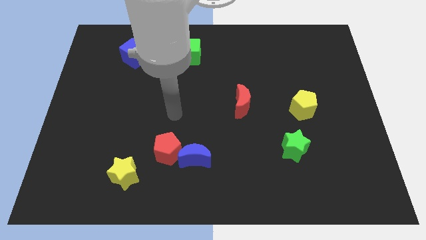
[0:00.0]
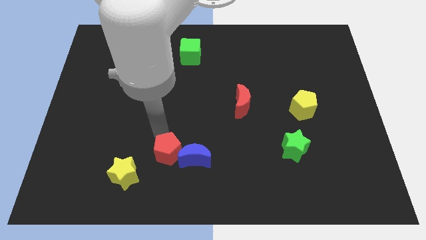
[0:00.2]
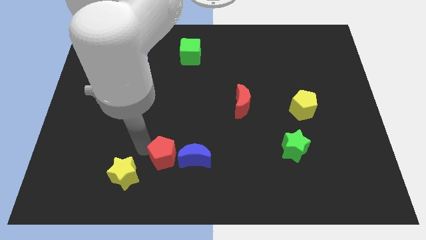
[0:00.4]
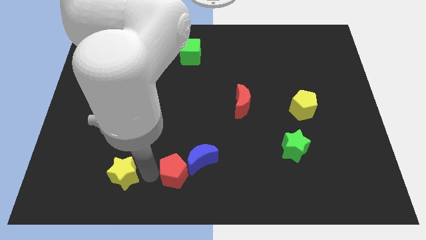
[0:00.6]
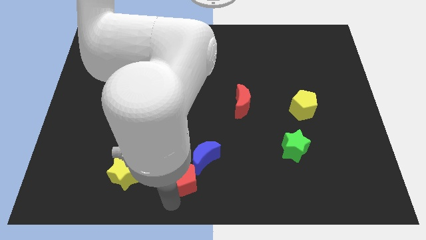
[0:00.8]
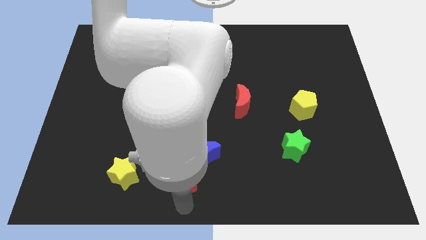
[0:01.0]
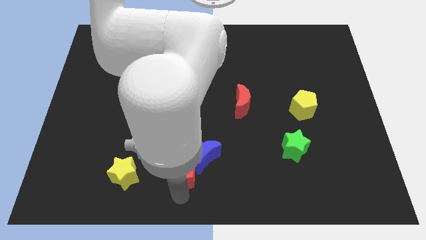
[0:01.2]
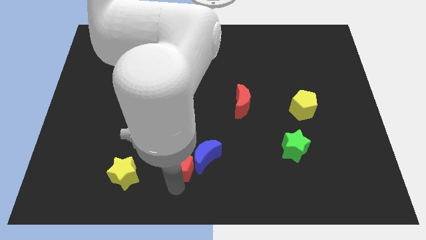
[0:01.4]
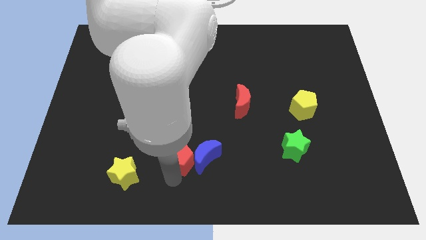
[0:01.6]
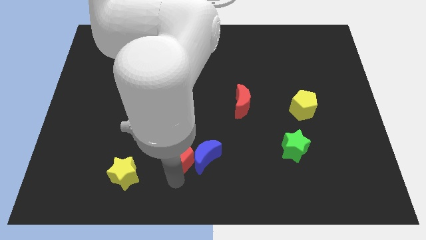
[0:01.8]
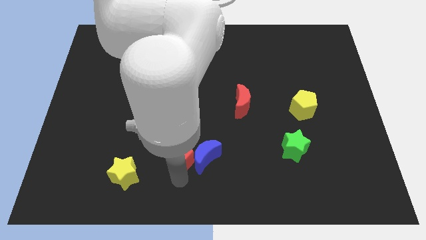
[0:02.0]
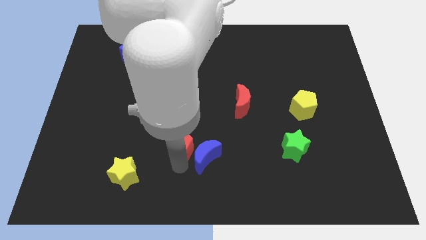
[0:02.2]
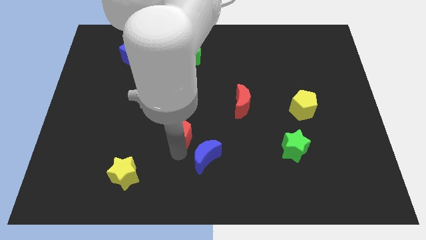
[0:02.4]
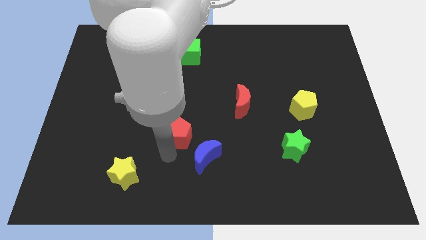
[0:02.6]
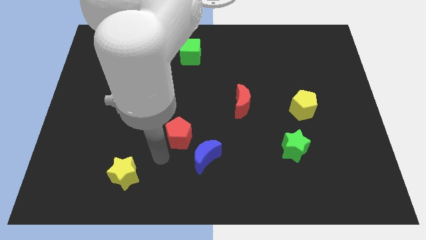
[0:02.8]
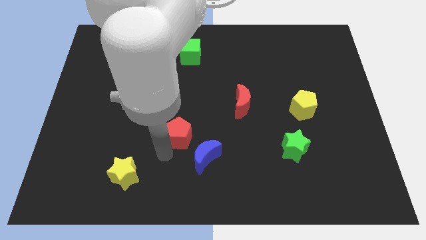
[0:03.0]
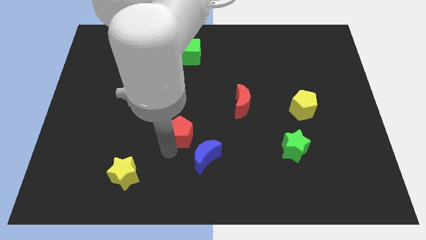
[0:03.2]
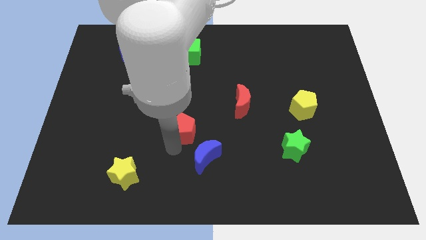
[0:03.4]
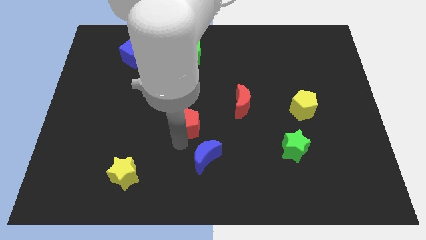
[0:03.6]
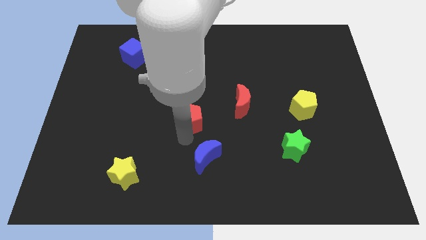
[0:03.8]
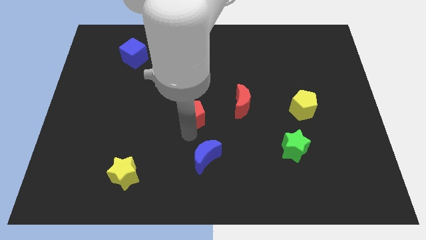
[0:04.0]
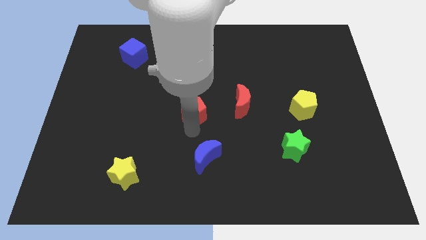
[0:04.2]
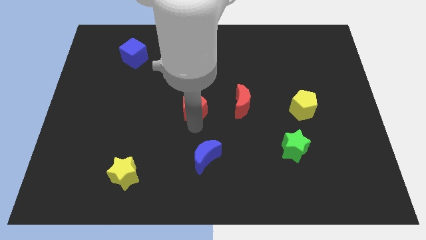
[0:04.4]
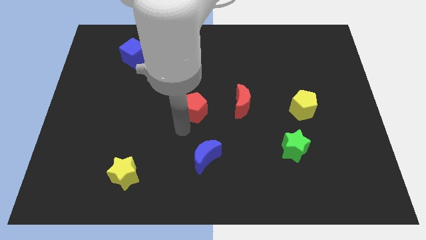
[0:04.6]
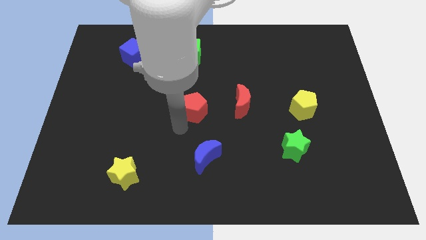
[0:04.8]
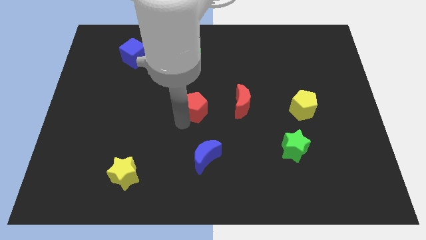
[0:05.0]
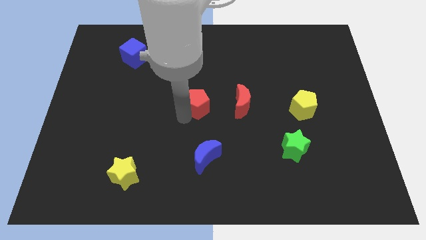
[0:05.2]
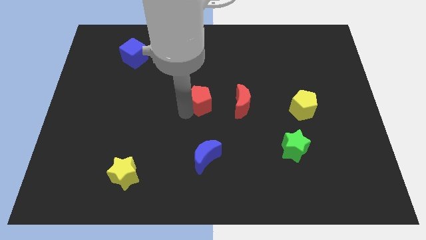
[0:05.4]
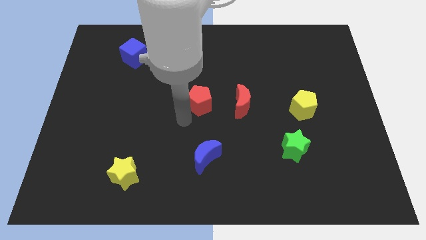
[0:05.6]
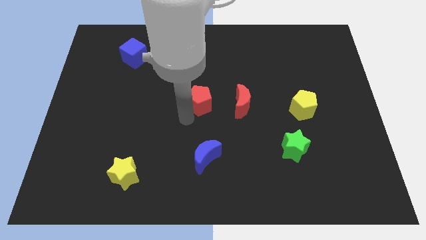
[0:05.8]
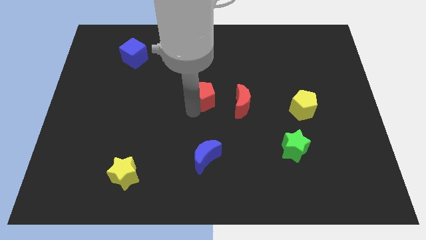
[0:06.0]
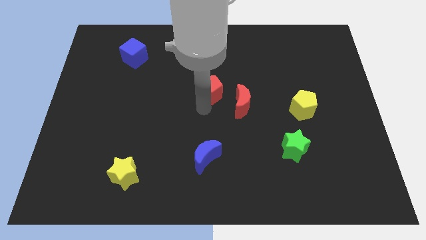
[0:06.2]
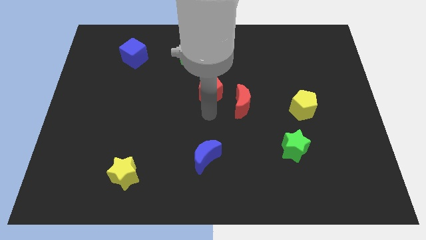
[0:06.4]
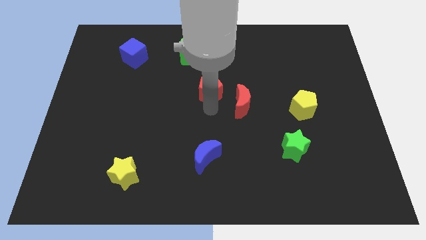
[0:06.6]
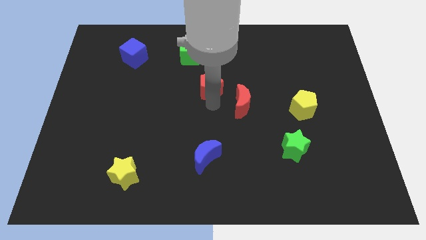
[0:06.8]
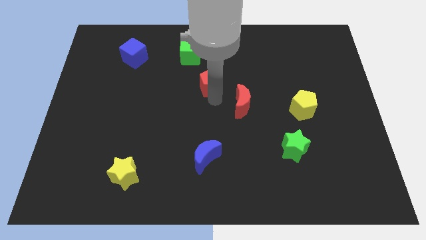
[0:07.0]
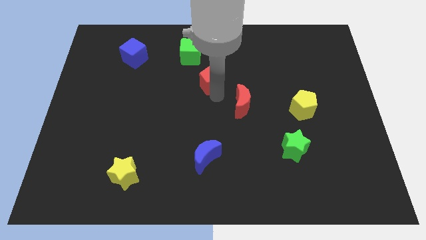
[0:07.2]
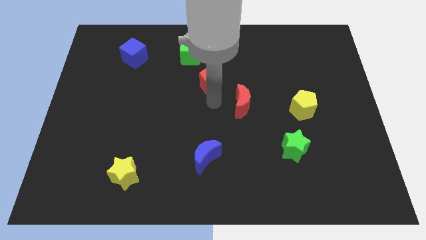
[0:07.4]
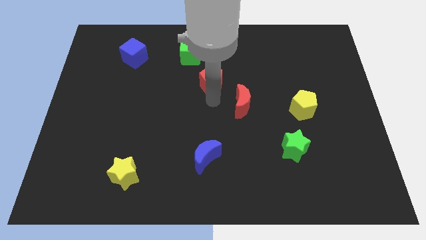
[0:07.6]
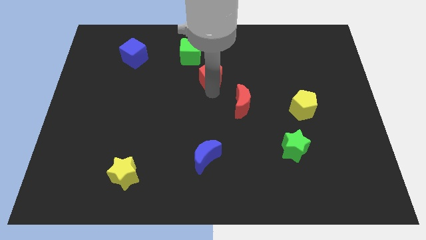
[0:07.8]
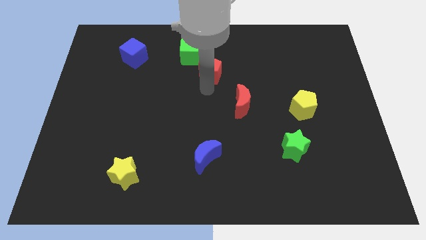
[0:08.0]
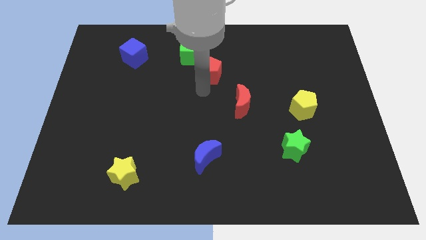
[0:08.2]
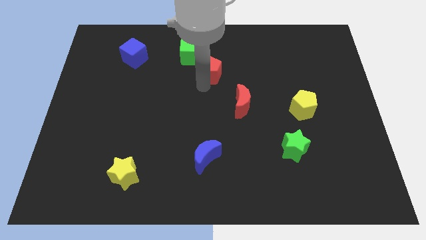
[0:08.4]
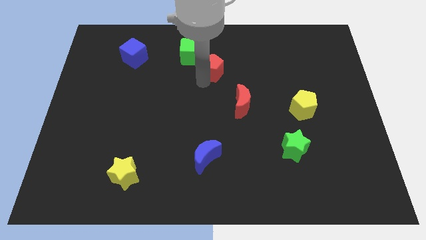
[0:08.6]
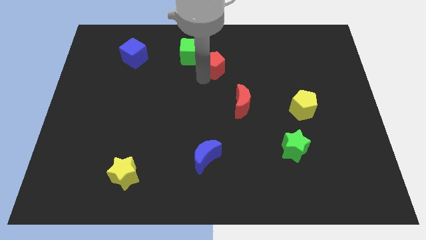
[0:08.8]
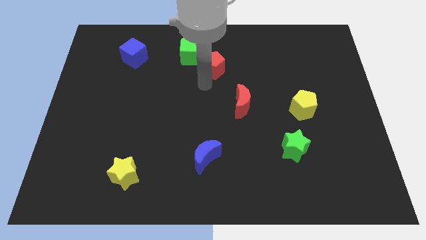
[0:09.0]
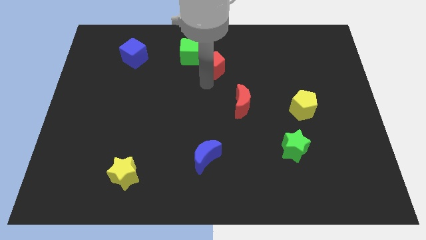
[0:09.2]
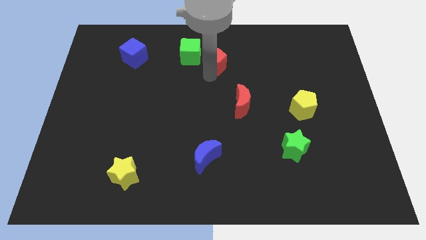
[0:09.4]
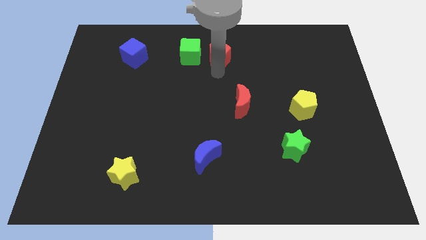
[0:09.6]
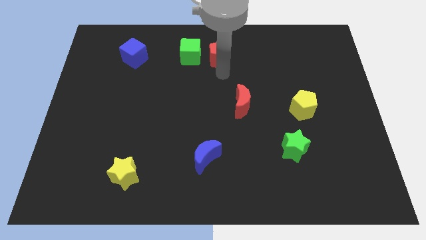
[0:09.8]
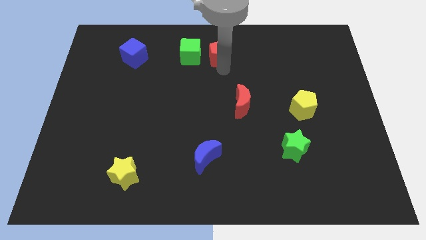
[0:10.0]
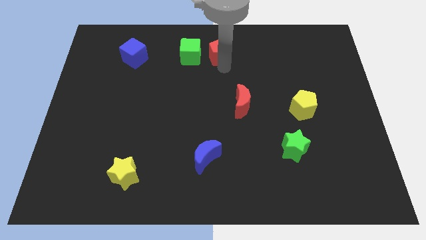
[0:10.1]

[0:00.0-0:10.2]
move the red pentagon to the top

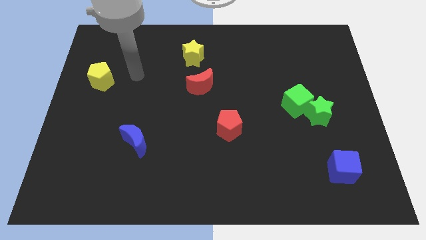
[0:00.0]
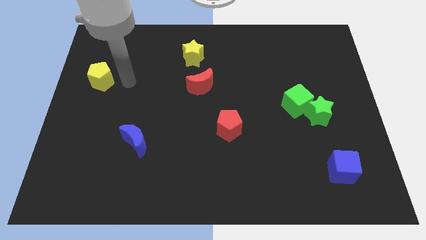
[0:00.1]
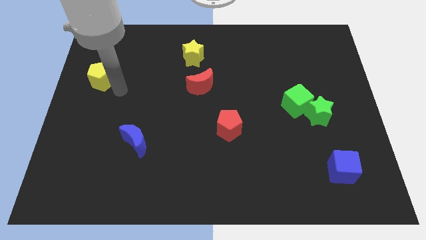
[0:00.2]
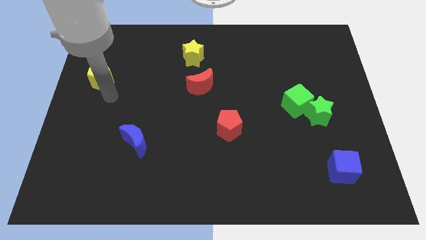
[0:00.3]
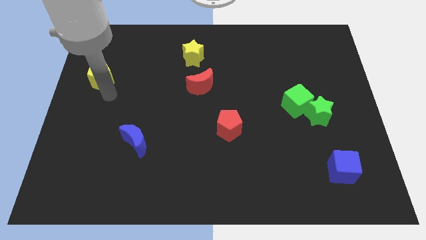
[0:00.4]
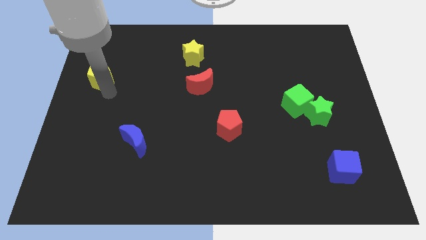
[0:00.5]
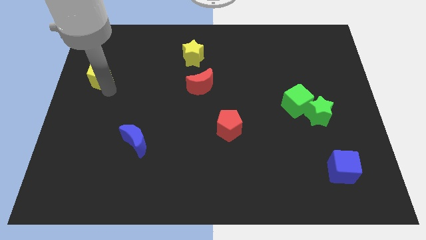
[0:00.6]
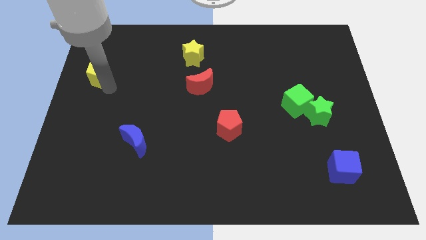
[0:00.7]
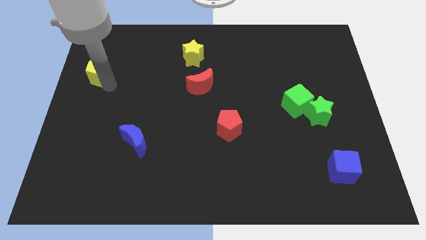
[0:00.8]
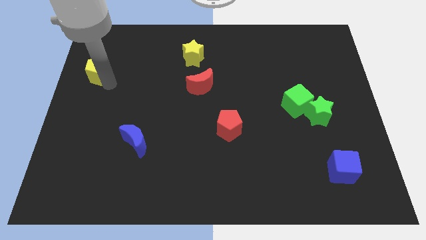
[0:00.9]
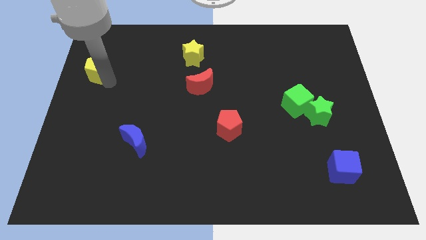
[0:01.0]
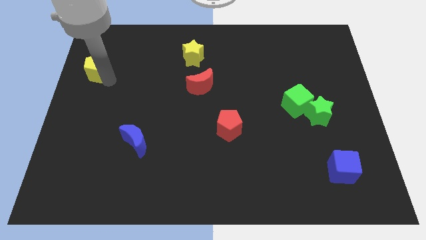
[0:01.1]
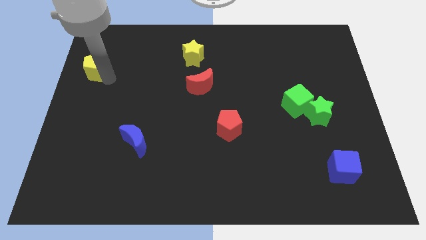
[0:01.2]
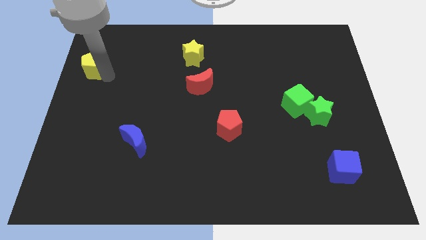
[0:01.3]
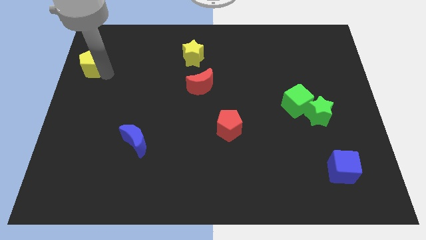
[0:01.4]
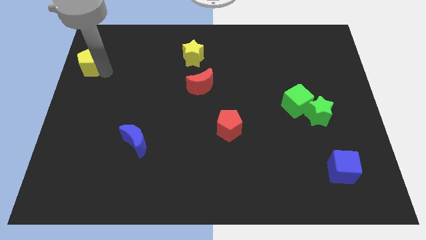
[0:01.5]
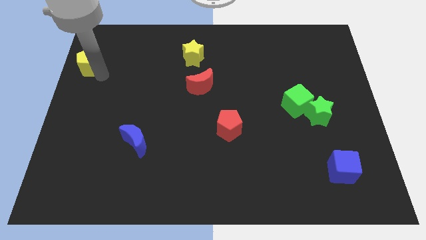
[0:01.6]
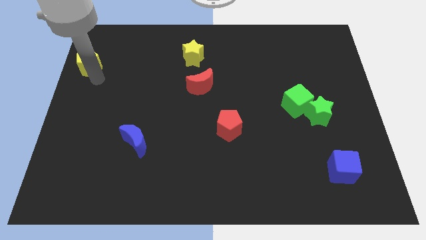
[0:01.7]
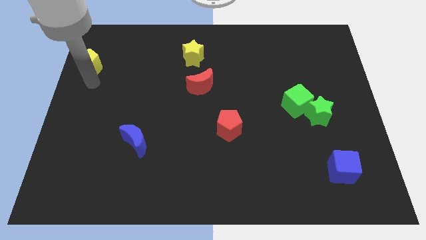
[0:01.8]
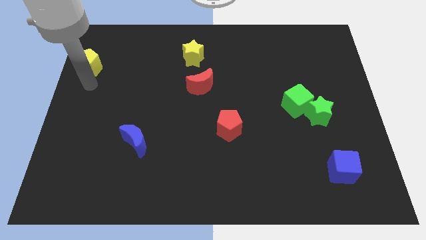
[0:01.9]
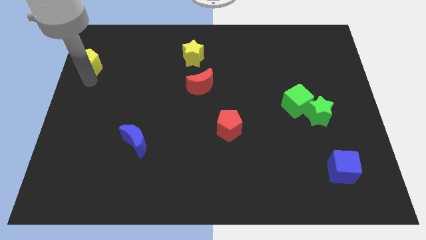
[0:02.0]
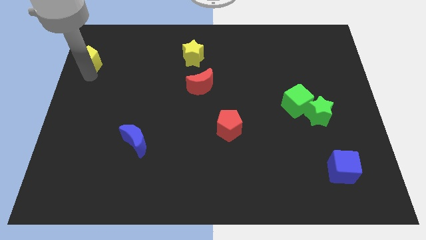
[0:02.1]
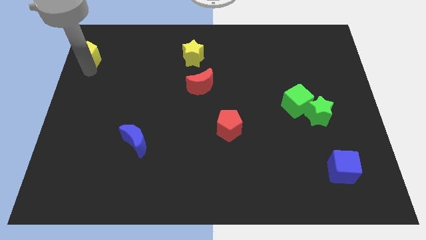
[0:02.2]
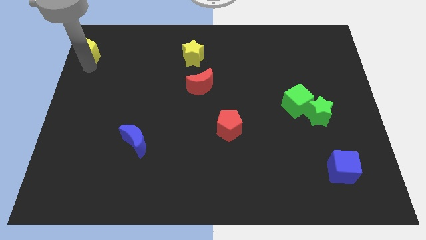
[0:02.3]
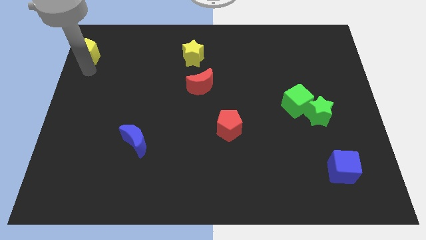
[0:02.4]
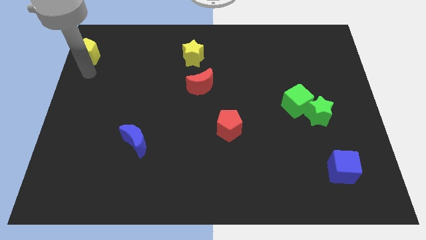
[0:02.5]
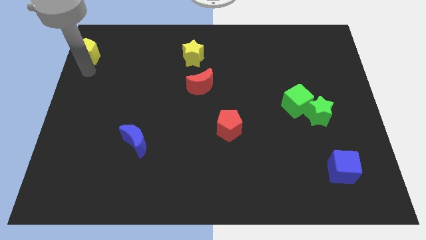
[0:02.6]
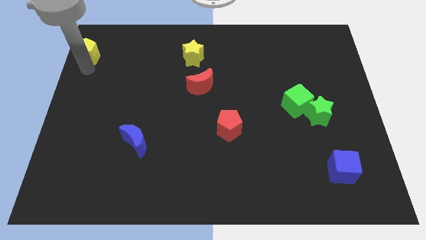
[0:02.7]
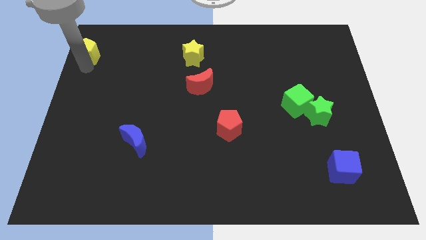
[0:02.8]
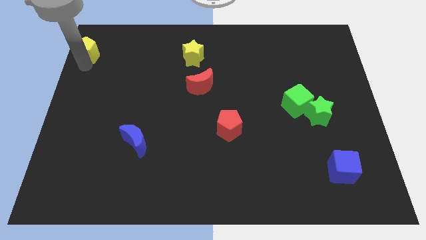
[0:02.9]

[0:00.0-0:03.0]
move the yellow pentagon to the upper left corner
